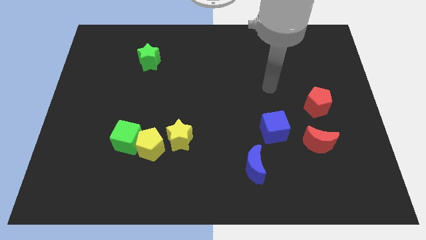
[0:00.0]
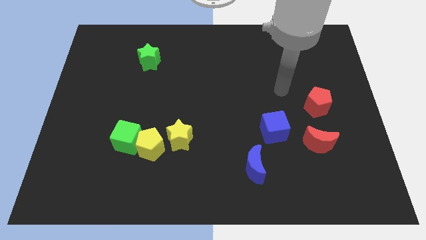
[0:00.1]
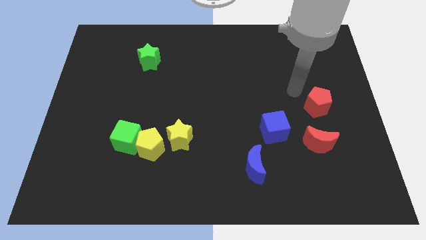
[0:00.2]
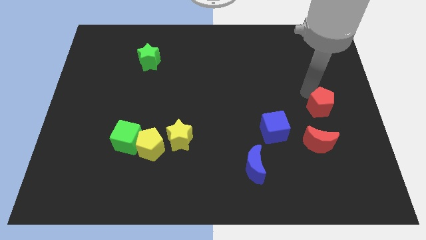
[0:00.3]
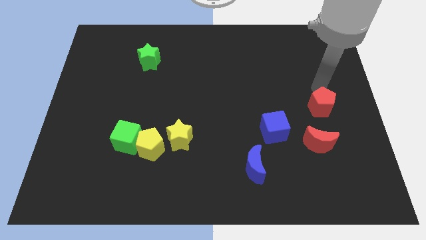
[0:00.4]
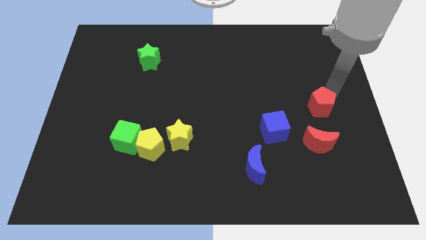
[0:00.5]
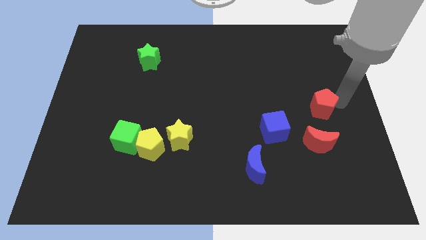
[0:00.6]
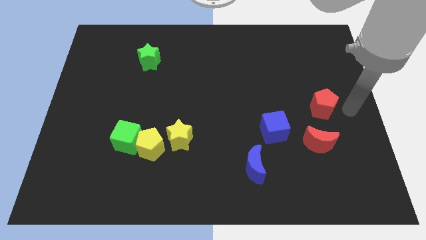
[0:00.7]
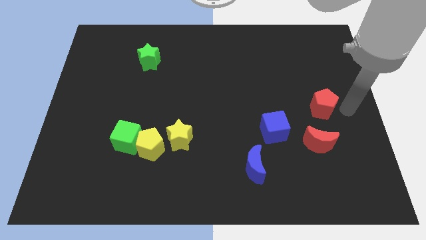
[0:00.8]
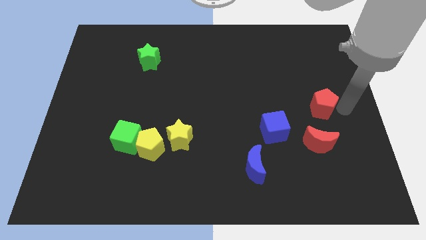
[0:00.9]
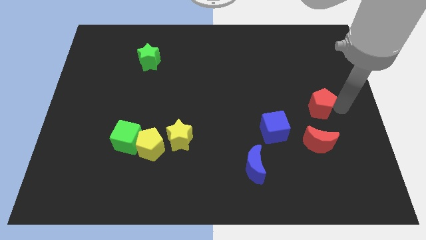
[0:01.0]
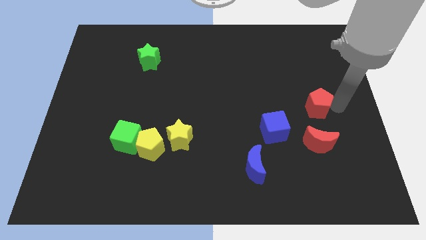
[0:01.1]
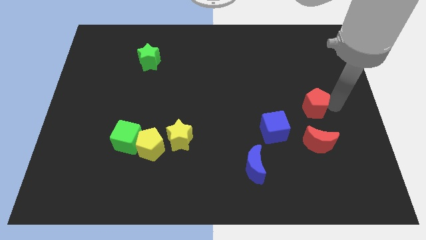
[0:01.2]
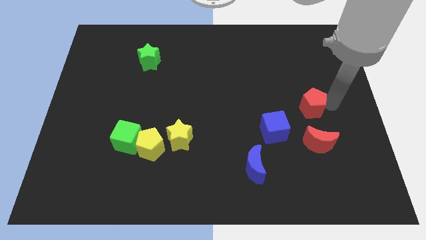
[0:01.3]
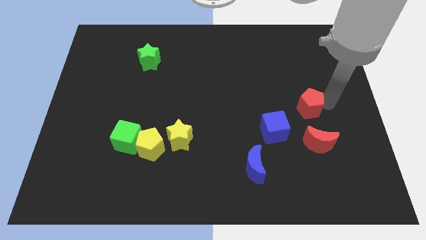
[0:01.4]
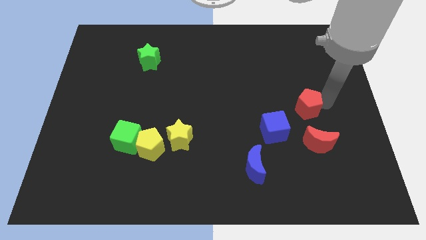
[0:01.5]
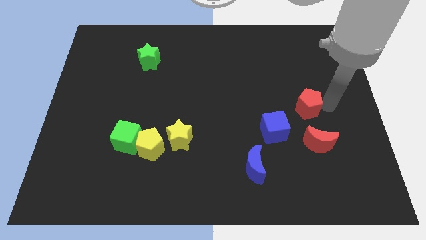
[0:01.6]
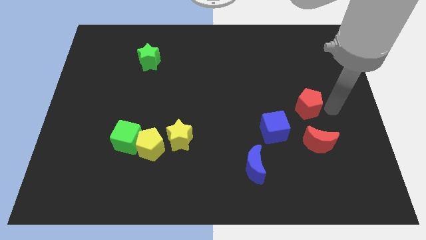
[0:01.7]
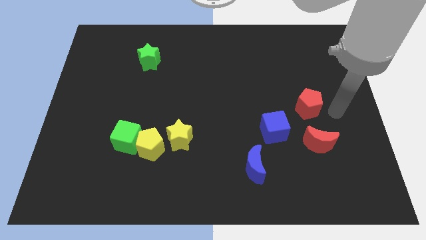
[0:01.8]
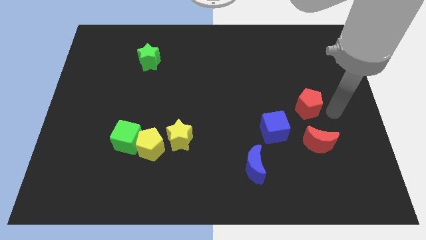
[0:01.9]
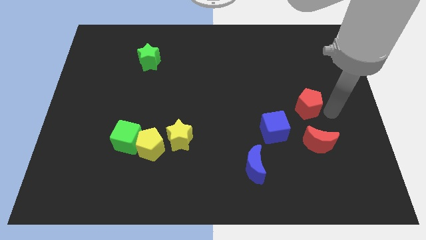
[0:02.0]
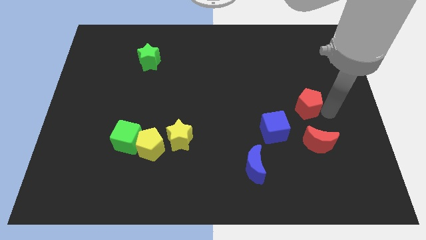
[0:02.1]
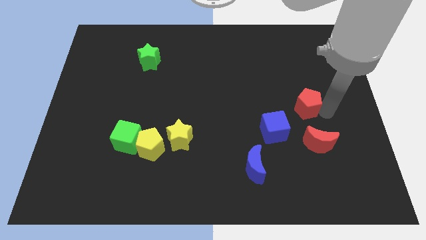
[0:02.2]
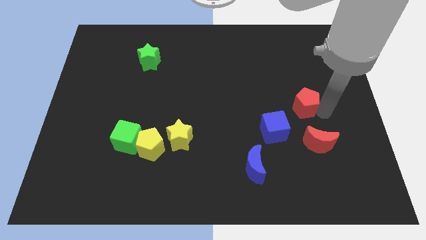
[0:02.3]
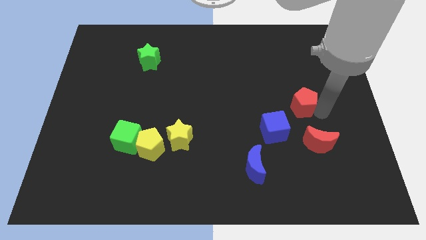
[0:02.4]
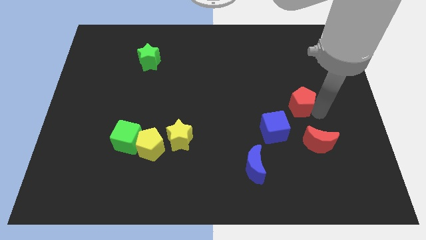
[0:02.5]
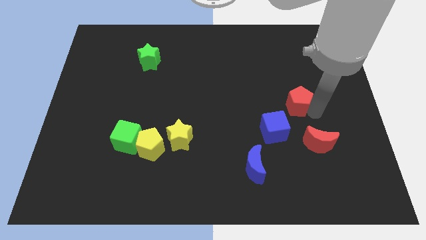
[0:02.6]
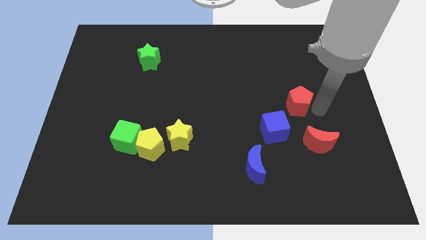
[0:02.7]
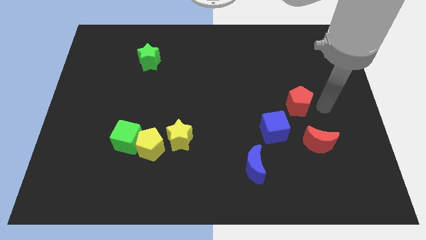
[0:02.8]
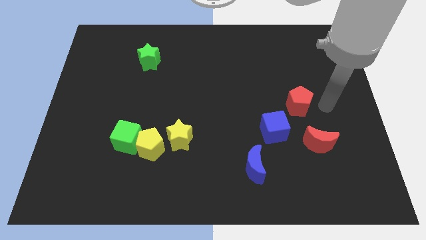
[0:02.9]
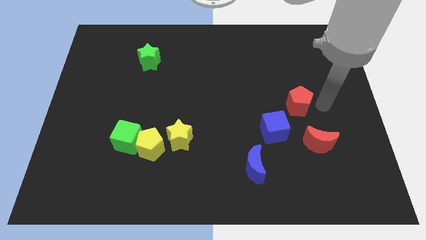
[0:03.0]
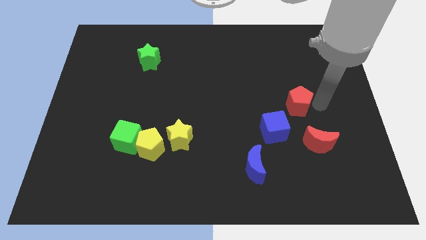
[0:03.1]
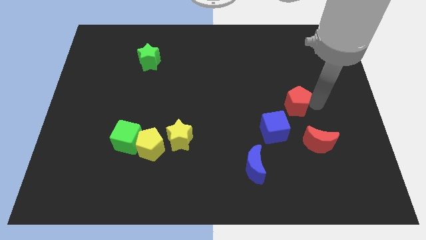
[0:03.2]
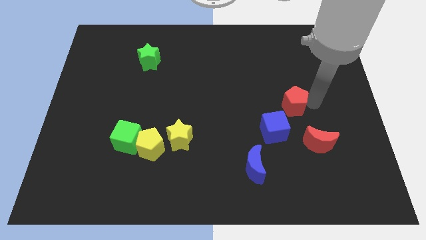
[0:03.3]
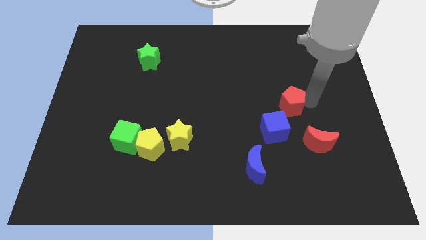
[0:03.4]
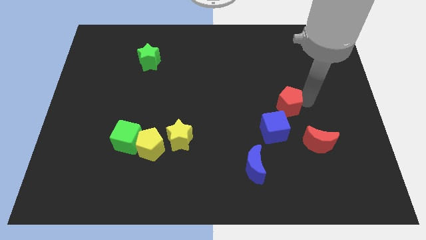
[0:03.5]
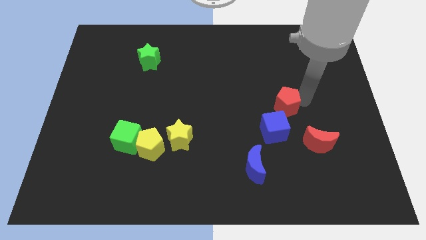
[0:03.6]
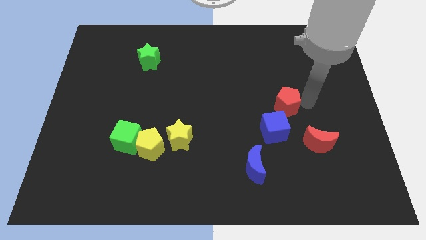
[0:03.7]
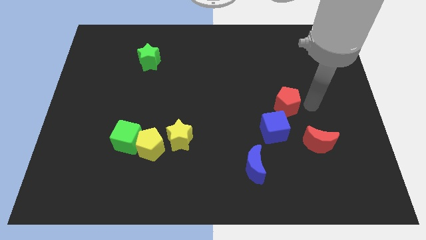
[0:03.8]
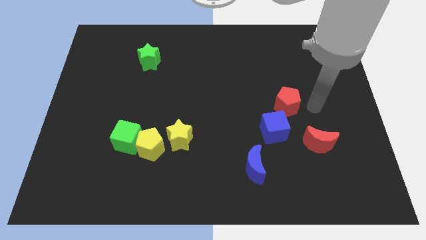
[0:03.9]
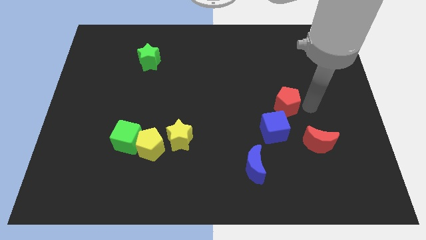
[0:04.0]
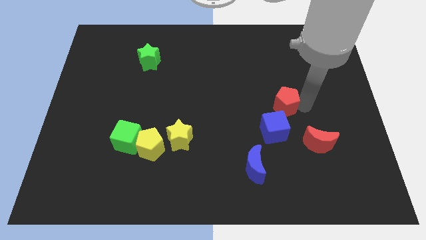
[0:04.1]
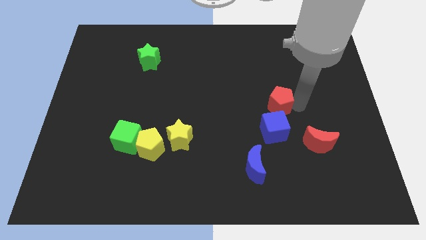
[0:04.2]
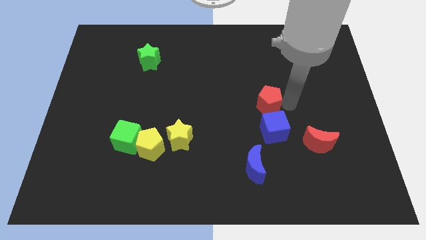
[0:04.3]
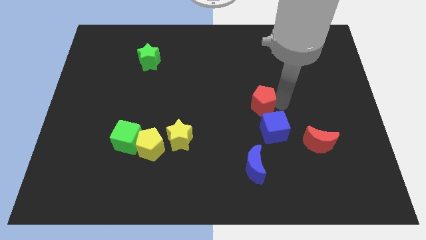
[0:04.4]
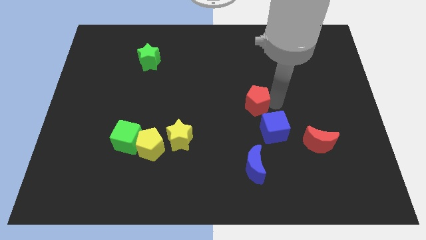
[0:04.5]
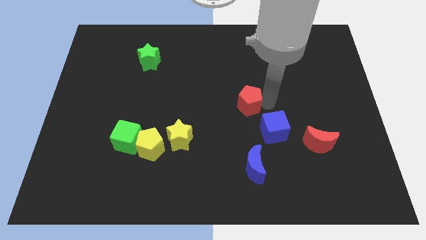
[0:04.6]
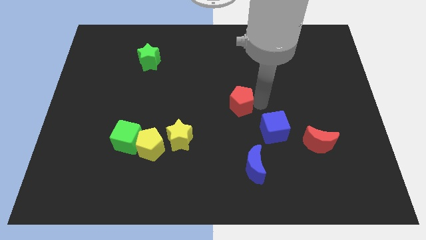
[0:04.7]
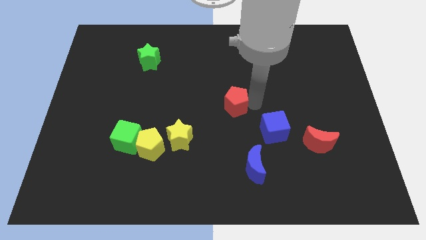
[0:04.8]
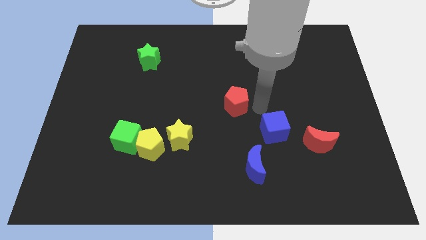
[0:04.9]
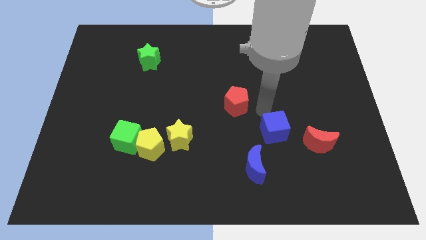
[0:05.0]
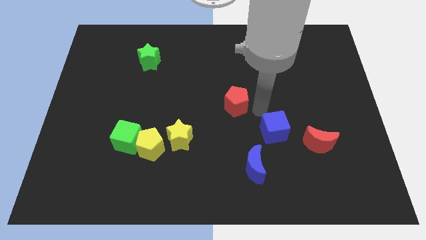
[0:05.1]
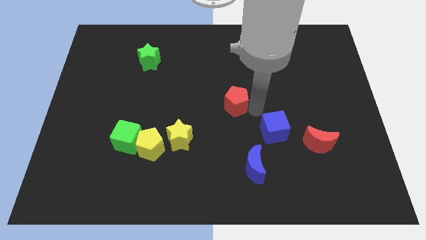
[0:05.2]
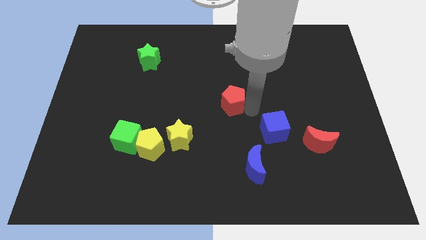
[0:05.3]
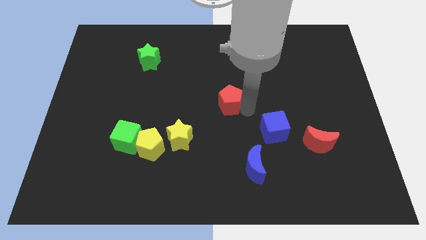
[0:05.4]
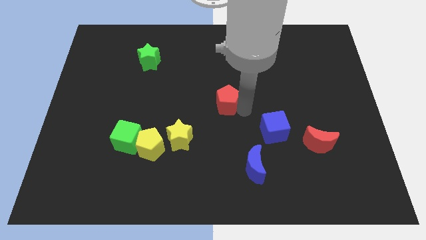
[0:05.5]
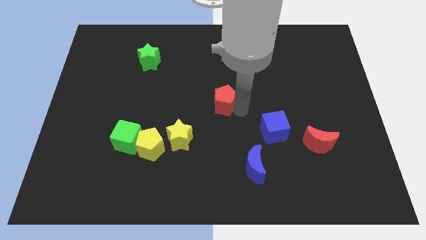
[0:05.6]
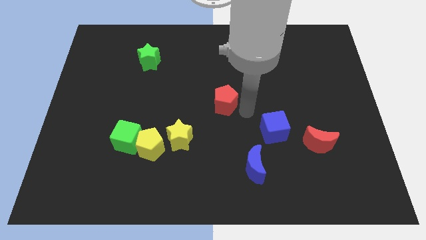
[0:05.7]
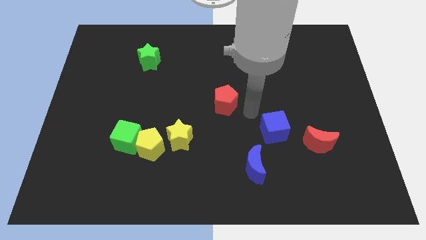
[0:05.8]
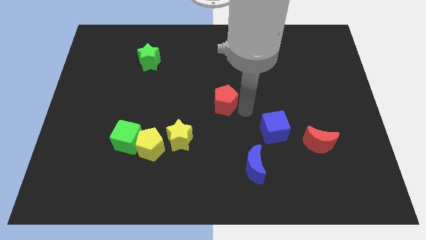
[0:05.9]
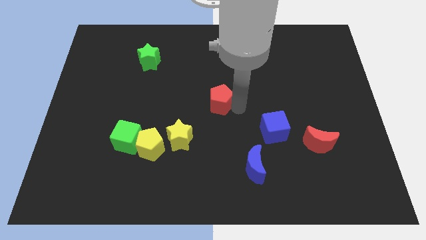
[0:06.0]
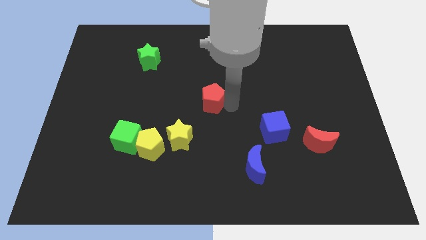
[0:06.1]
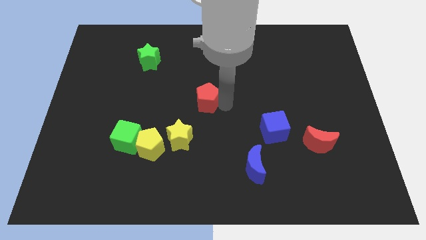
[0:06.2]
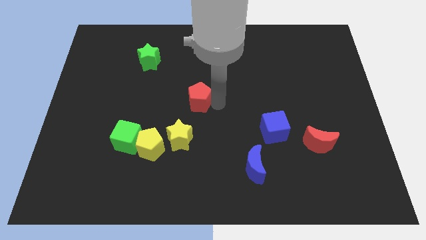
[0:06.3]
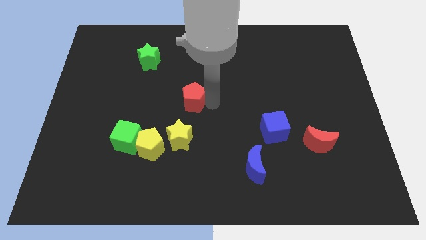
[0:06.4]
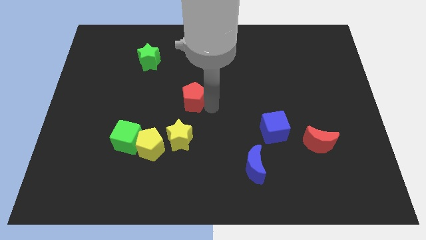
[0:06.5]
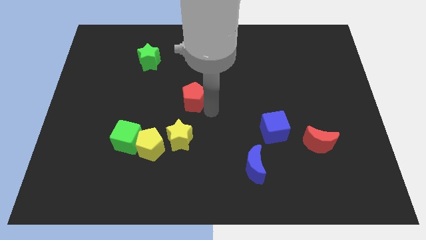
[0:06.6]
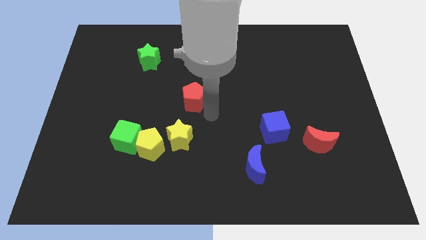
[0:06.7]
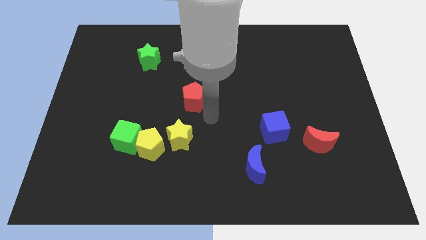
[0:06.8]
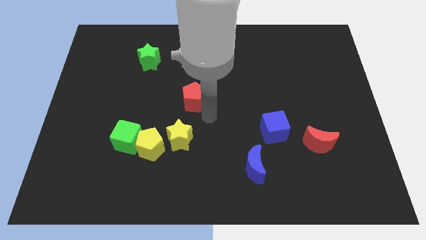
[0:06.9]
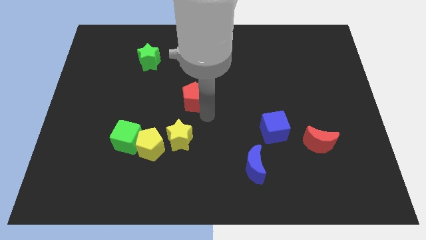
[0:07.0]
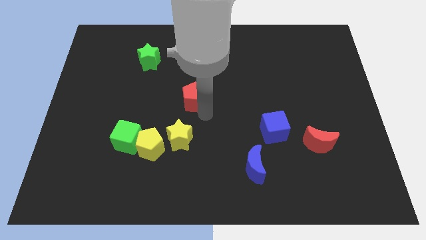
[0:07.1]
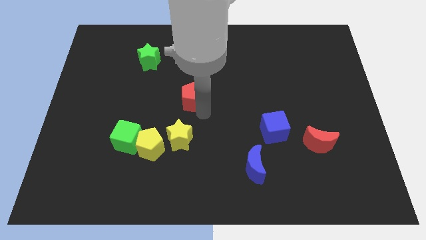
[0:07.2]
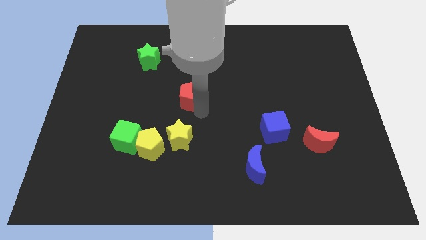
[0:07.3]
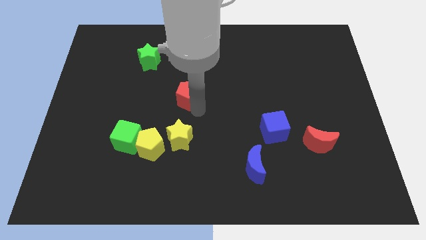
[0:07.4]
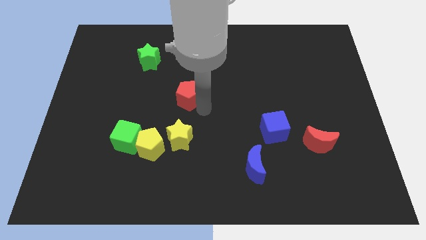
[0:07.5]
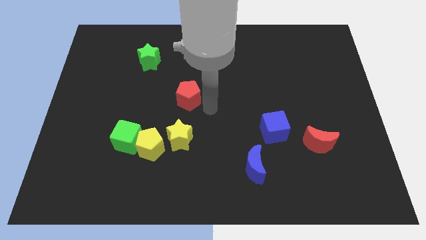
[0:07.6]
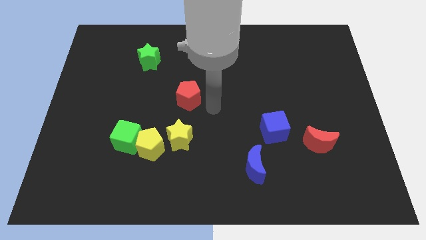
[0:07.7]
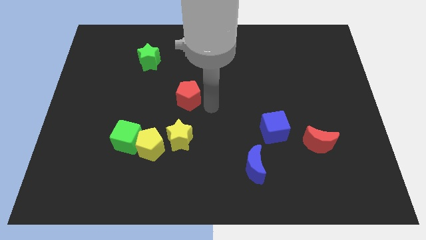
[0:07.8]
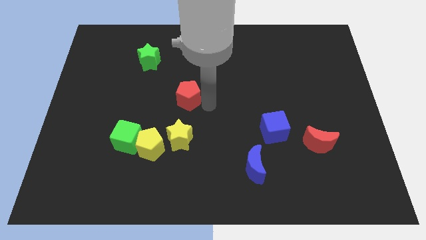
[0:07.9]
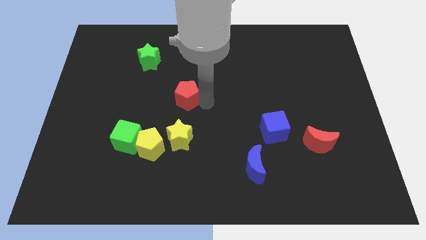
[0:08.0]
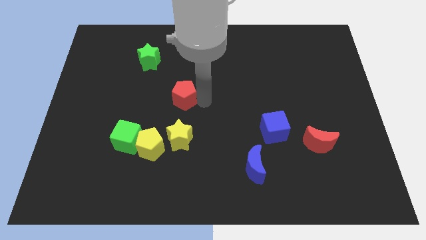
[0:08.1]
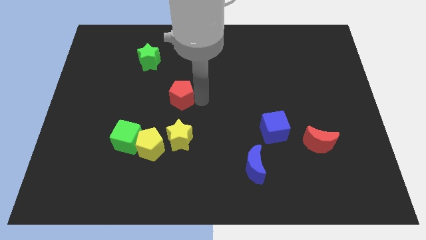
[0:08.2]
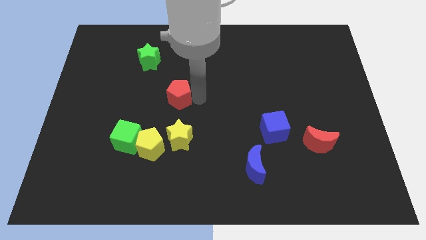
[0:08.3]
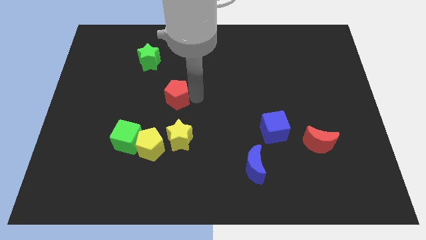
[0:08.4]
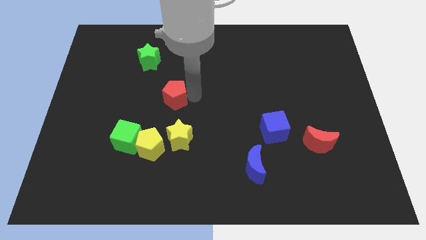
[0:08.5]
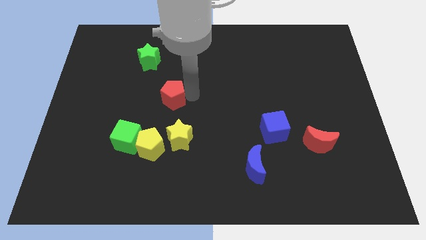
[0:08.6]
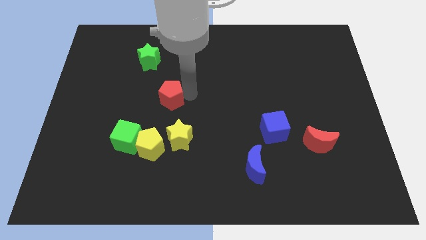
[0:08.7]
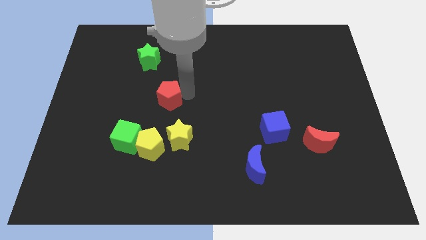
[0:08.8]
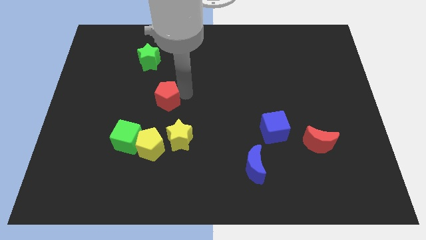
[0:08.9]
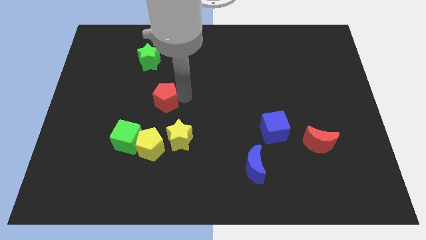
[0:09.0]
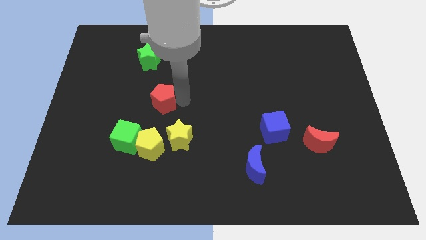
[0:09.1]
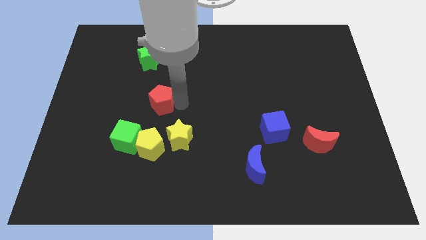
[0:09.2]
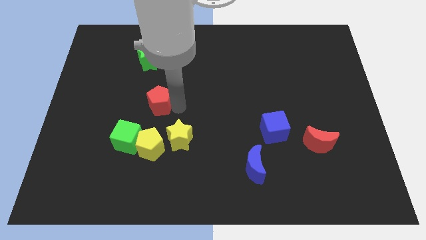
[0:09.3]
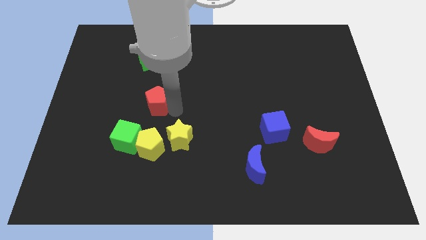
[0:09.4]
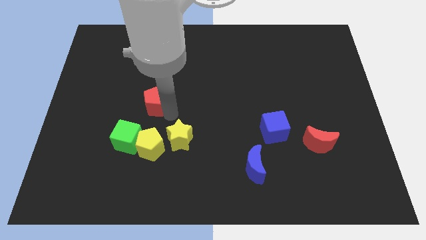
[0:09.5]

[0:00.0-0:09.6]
push the red pentagon to the bottom side of the green star
